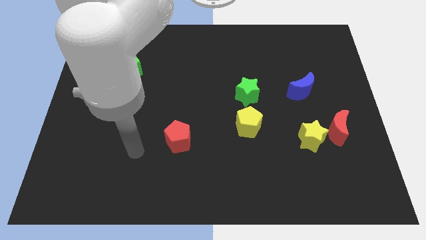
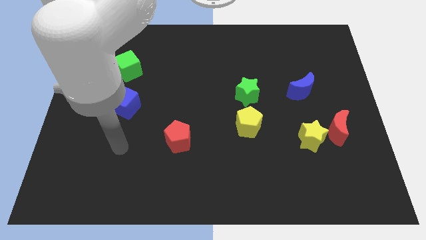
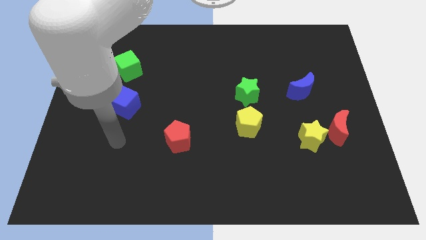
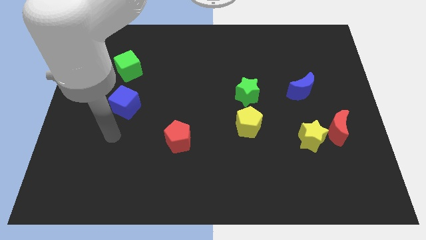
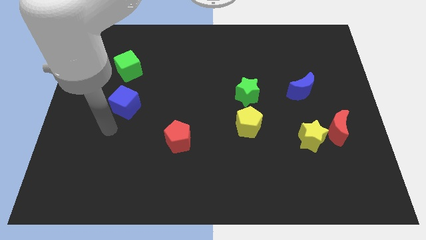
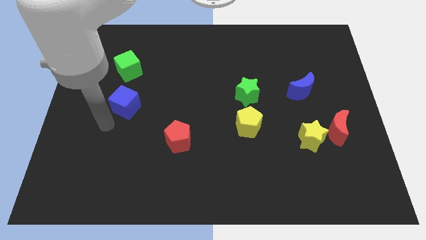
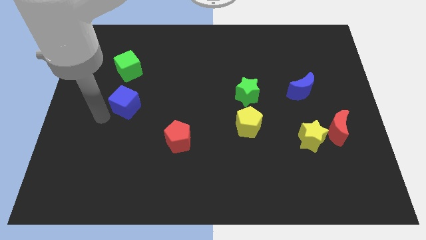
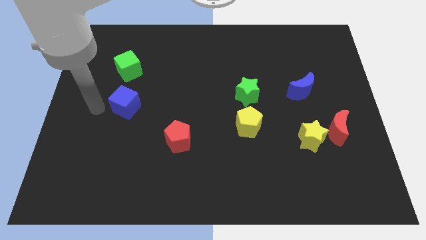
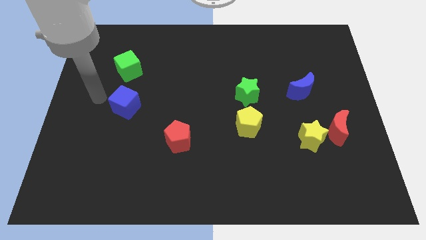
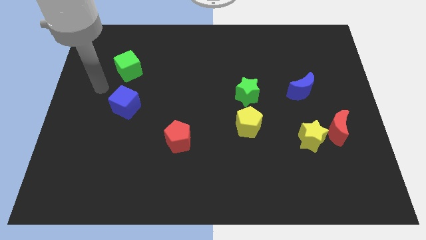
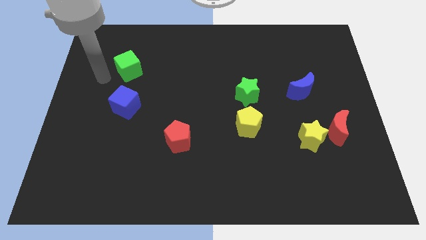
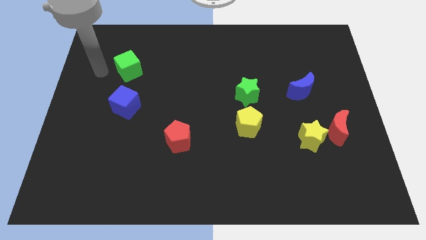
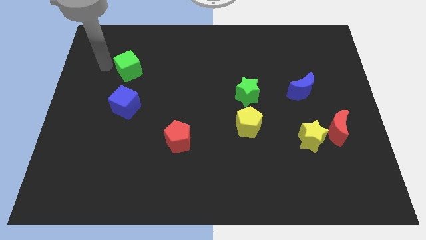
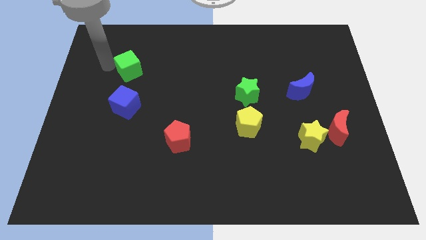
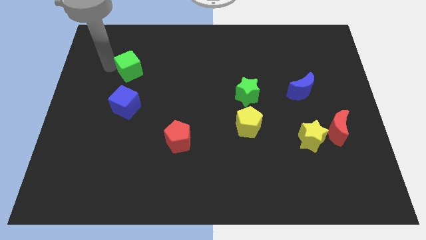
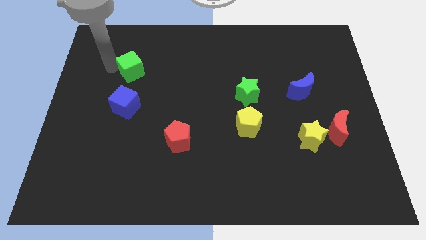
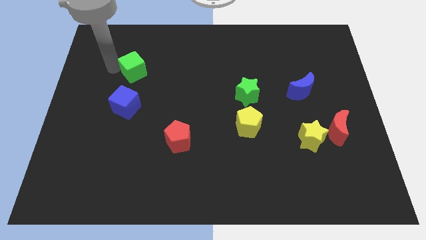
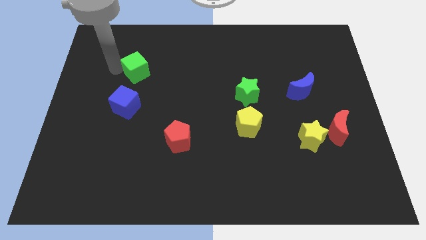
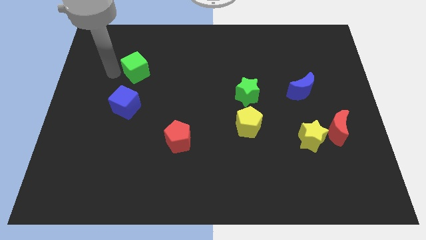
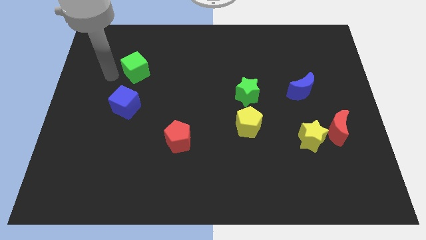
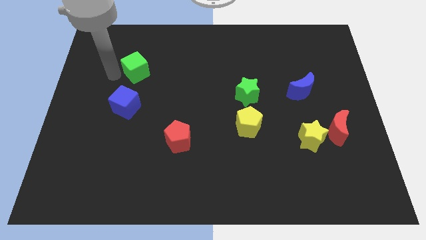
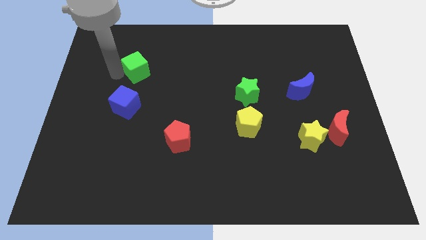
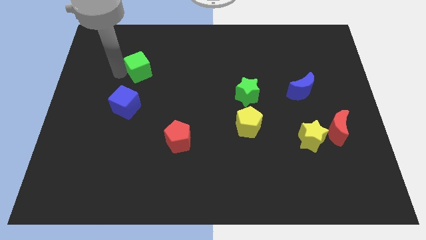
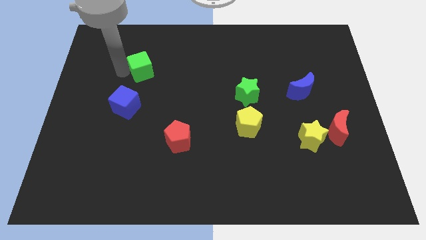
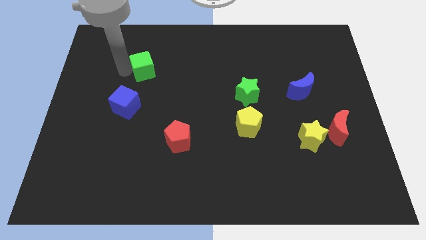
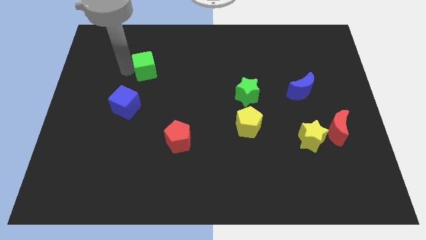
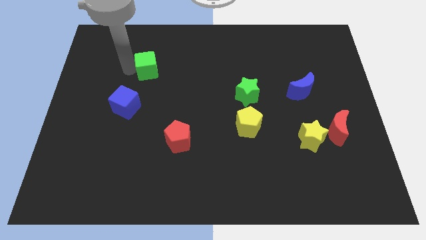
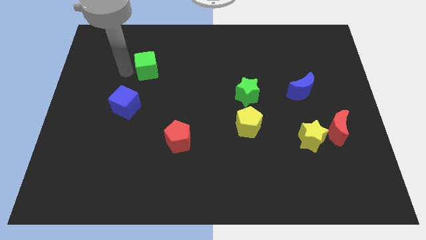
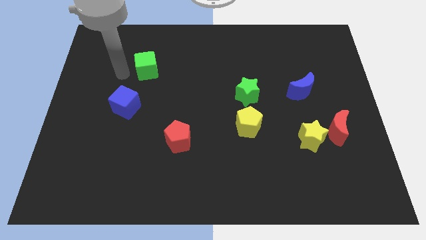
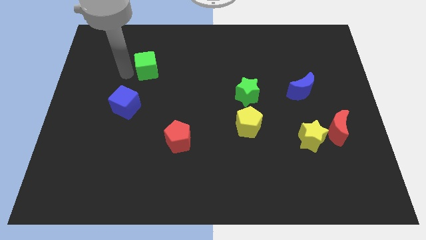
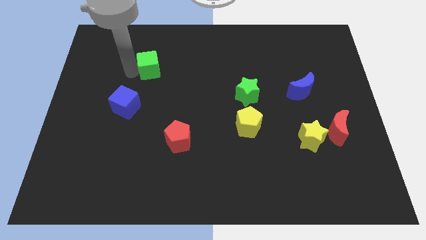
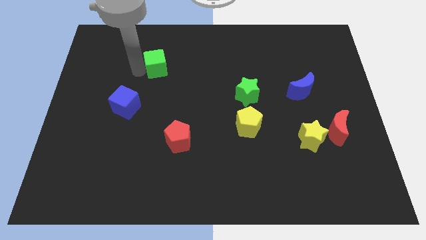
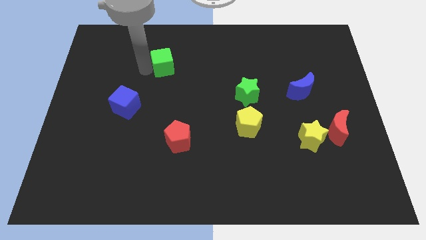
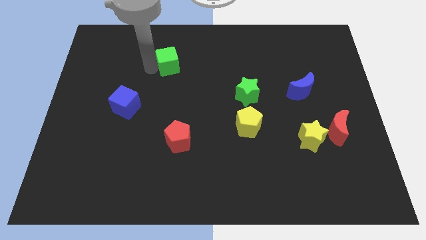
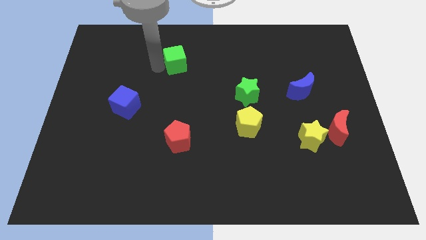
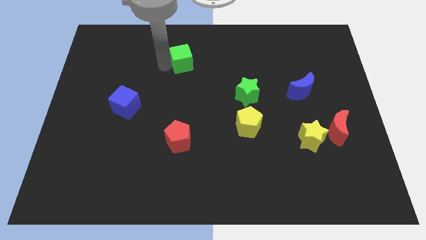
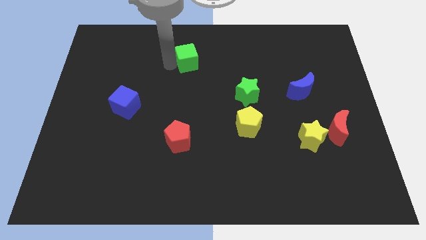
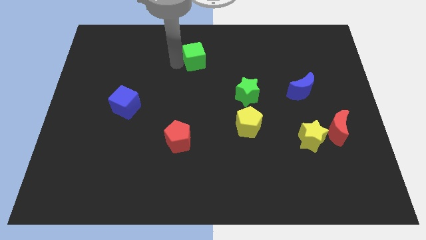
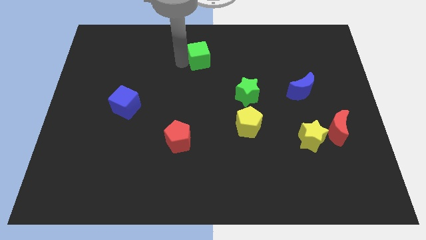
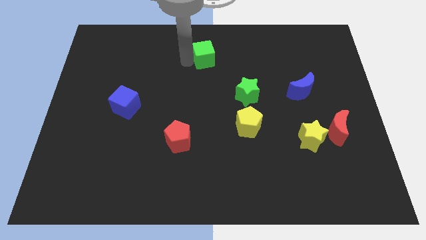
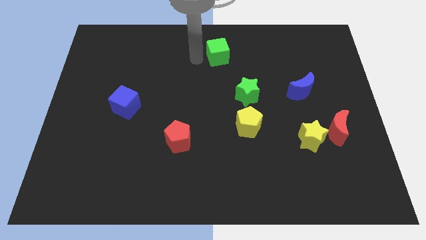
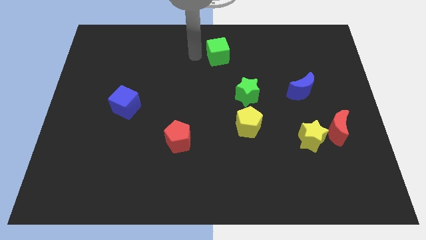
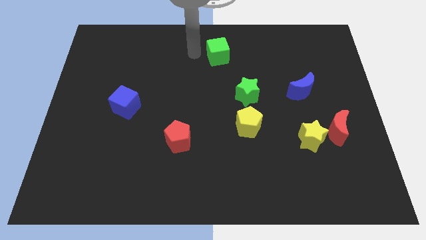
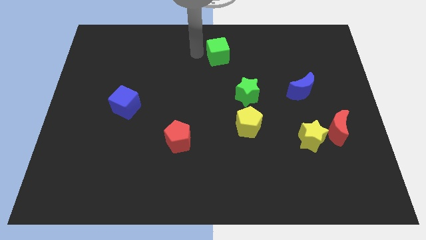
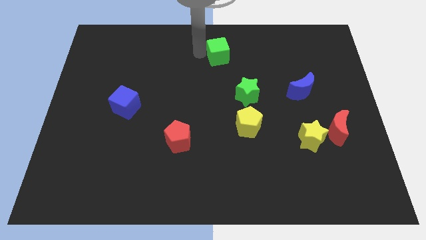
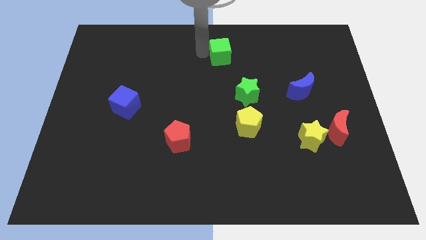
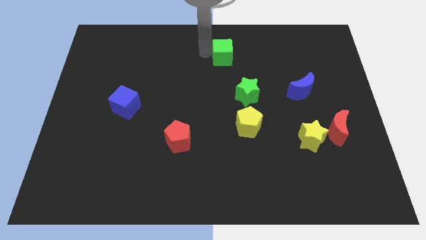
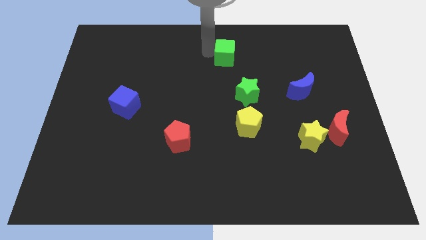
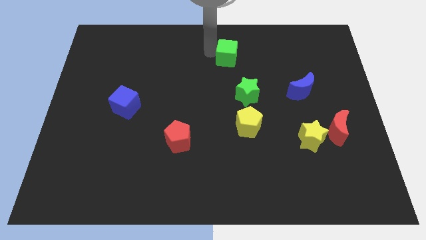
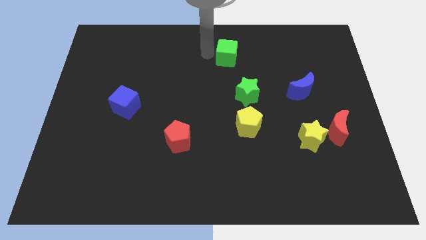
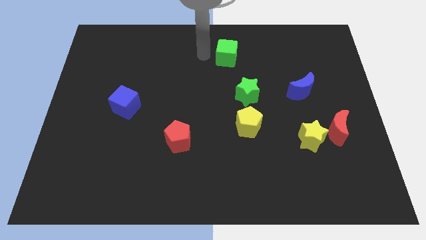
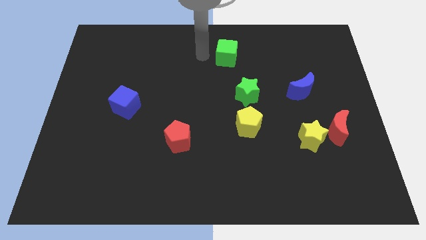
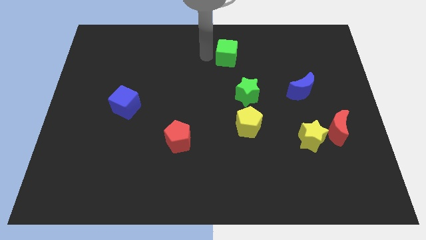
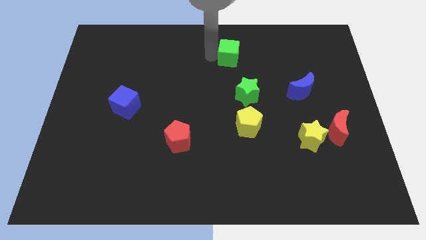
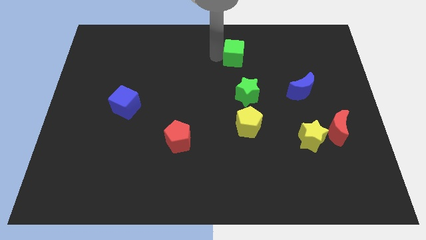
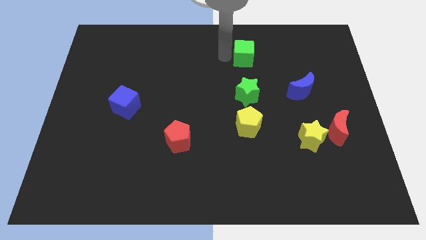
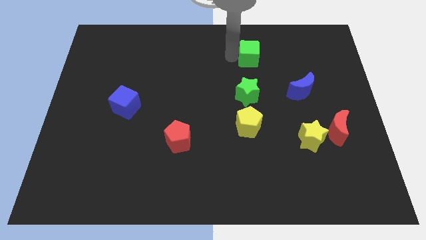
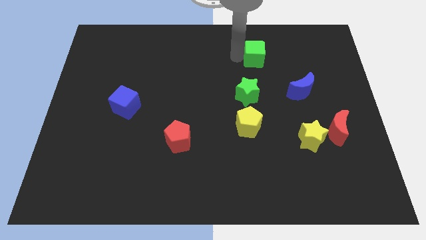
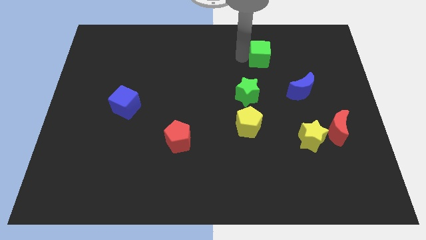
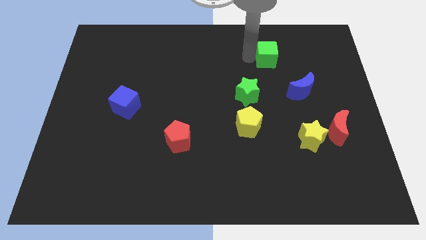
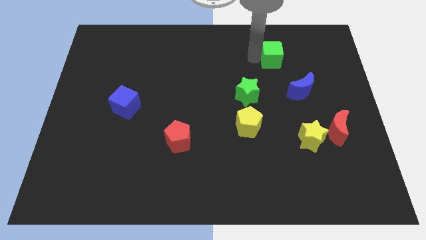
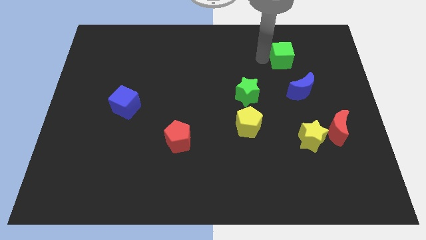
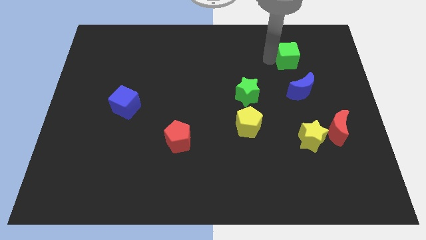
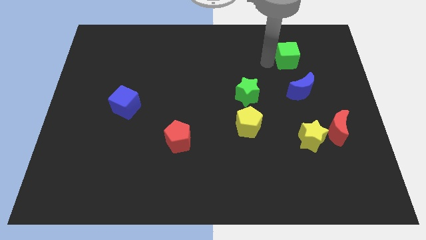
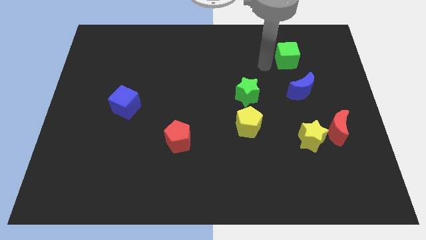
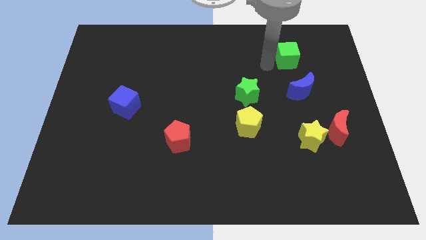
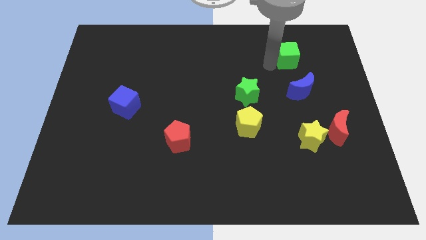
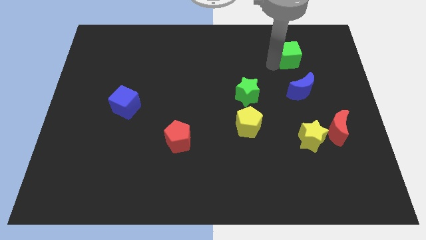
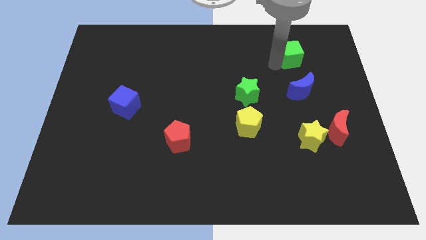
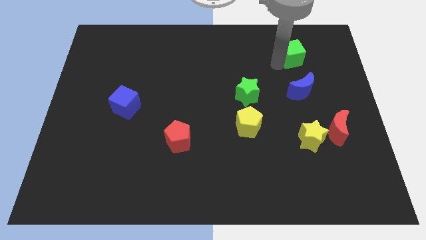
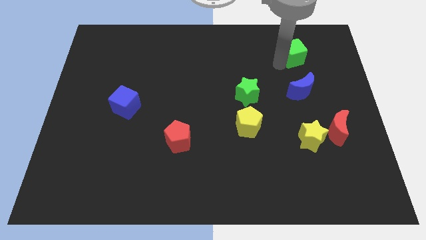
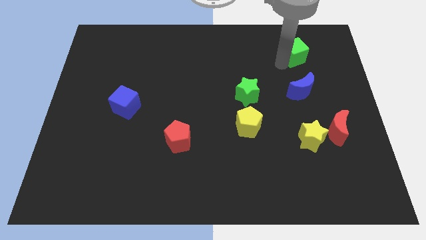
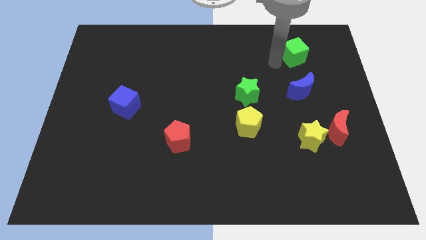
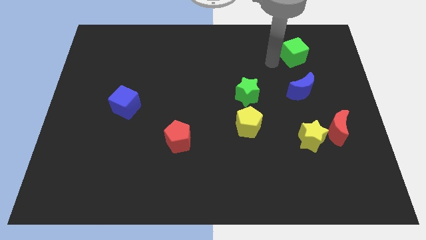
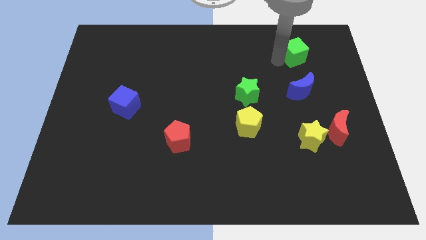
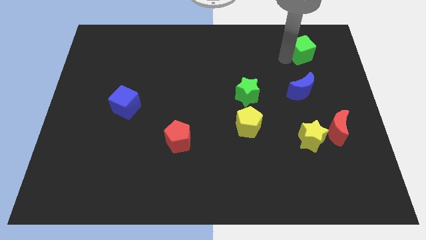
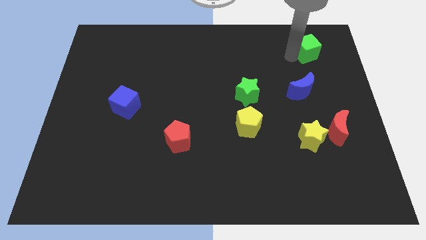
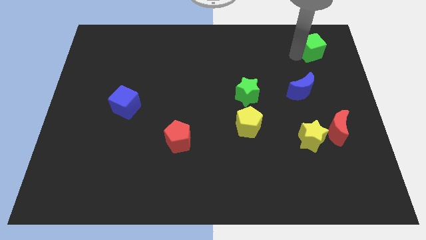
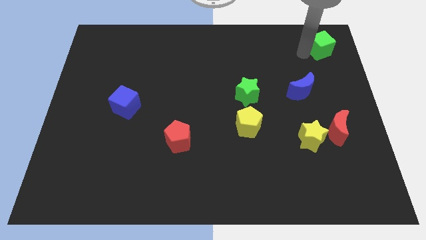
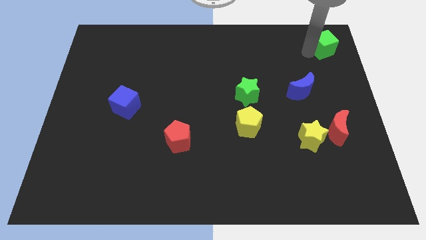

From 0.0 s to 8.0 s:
put the green cube to the top right
